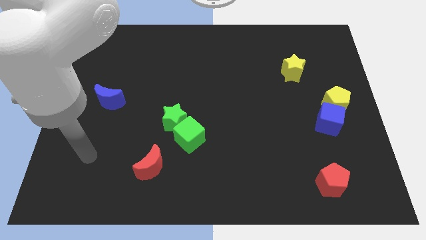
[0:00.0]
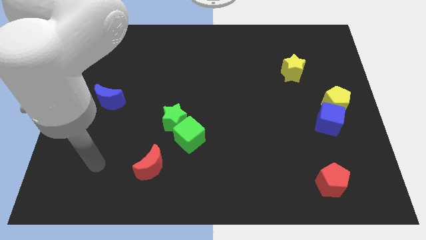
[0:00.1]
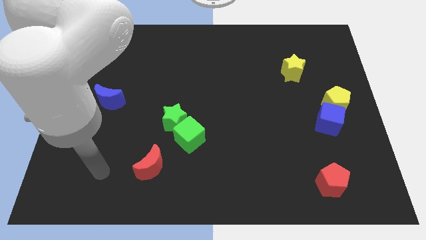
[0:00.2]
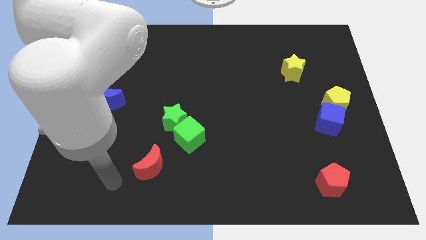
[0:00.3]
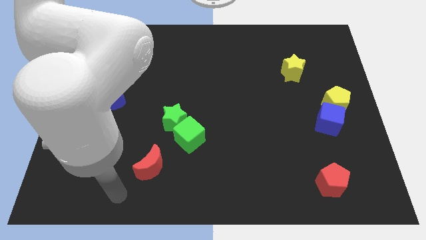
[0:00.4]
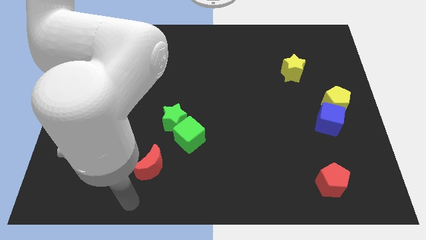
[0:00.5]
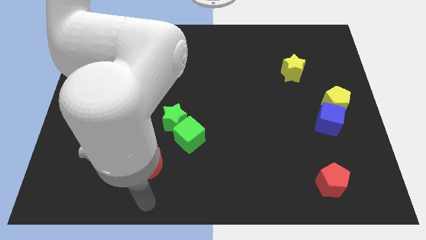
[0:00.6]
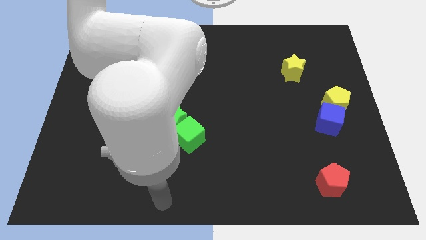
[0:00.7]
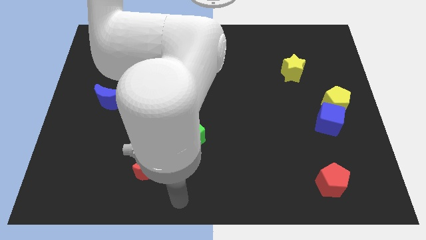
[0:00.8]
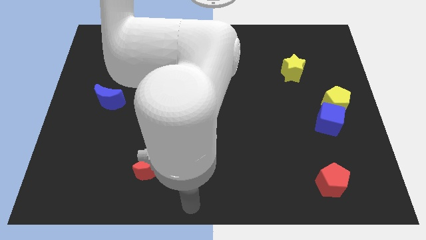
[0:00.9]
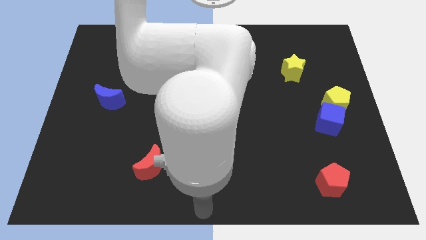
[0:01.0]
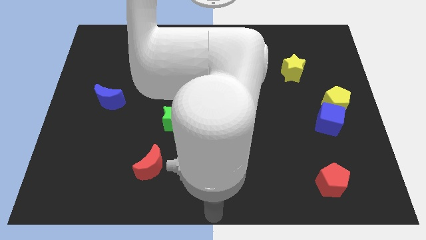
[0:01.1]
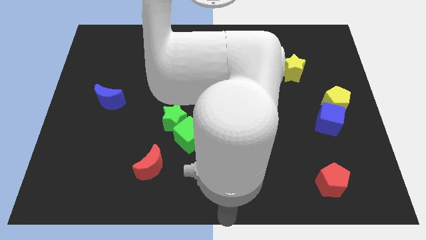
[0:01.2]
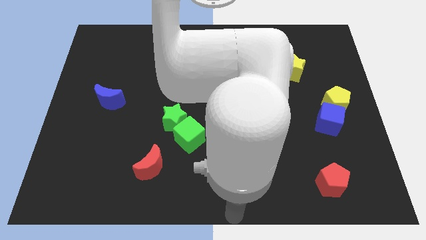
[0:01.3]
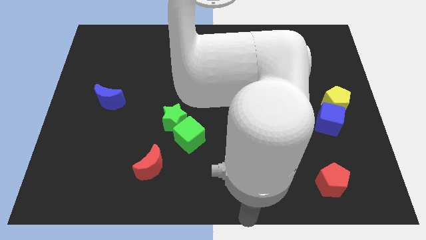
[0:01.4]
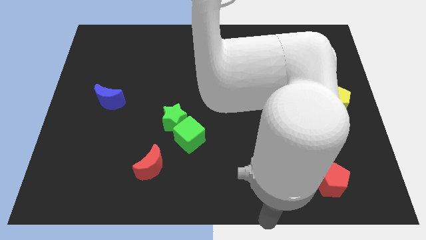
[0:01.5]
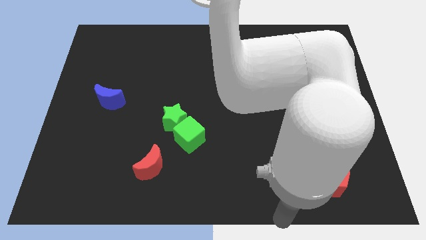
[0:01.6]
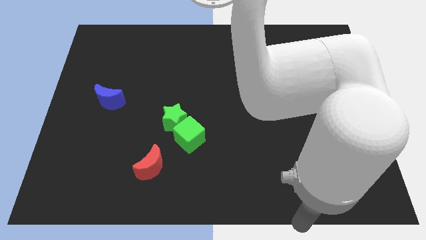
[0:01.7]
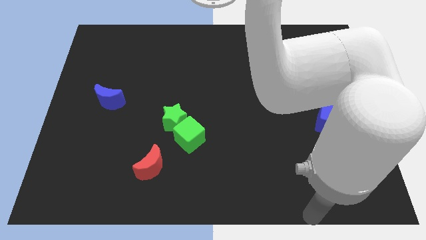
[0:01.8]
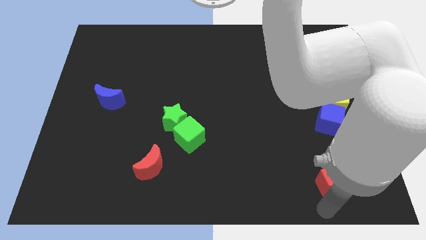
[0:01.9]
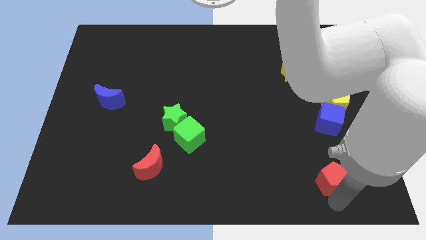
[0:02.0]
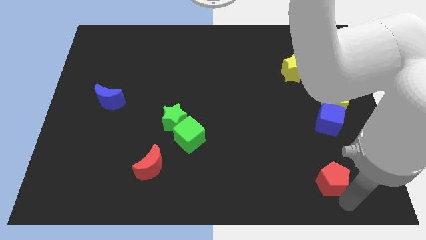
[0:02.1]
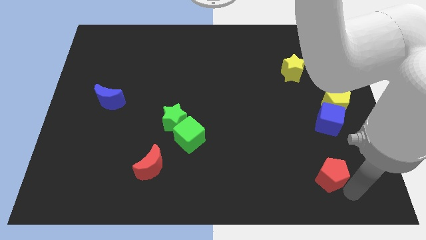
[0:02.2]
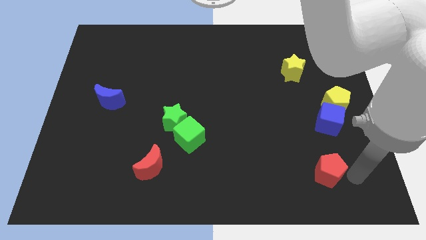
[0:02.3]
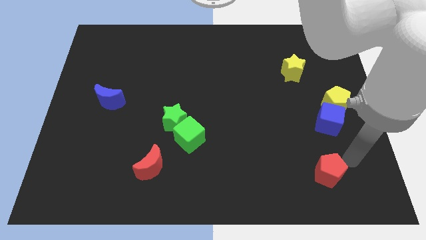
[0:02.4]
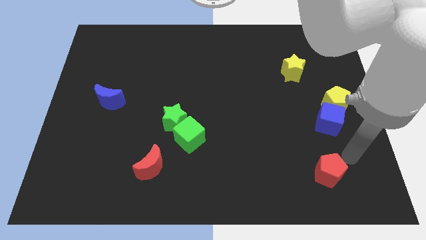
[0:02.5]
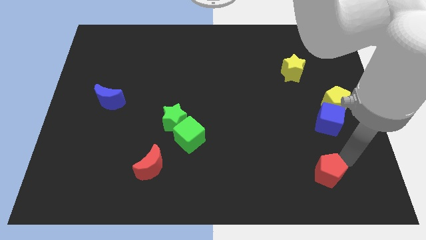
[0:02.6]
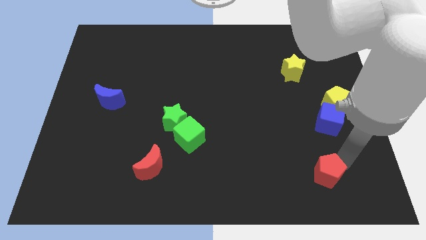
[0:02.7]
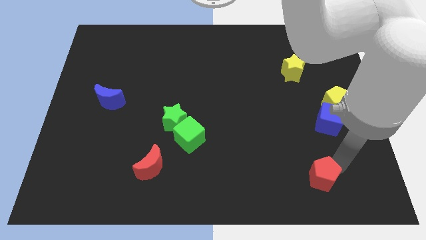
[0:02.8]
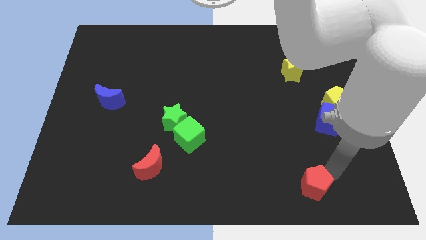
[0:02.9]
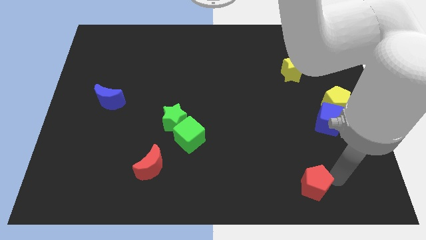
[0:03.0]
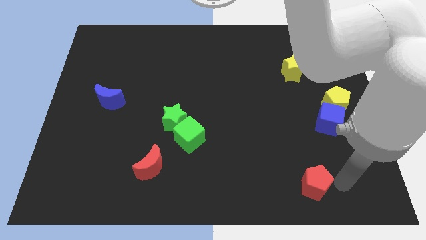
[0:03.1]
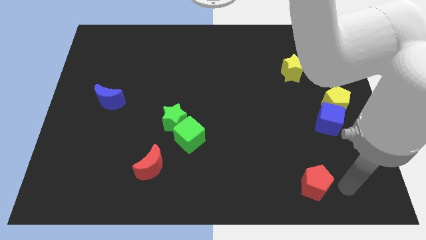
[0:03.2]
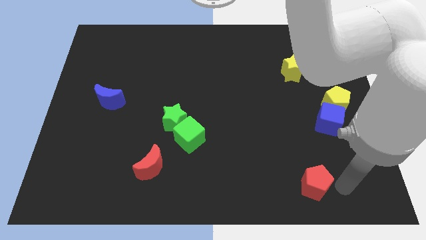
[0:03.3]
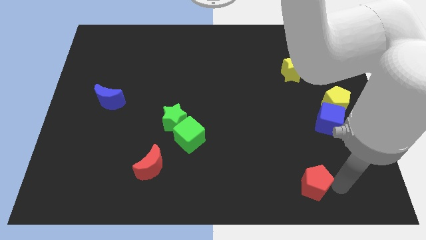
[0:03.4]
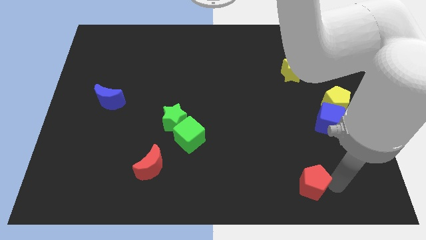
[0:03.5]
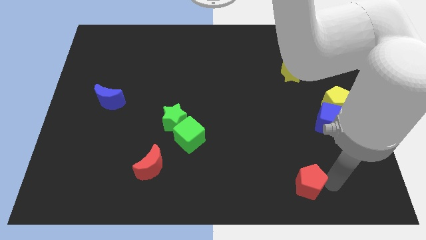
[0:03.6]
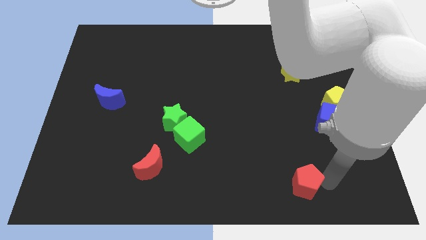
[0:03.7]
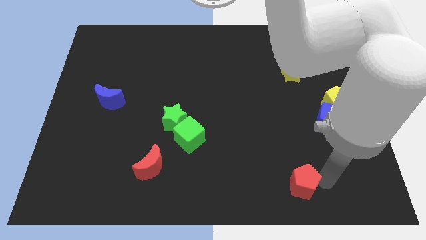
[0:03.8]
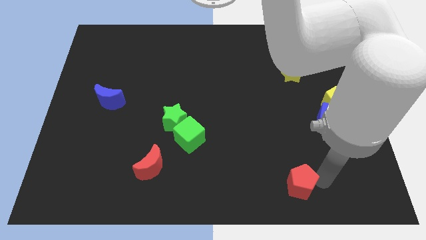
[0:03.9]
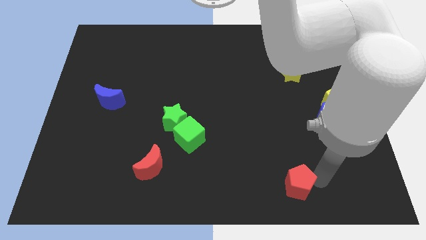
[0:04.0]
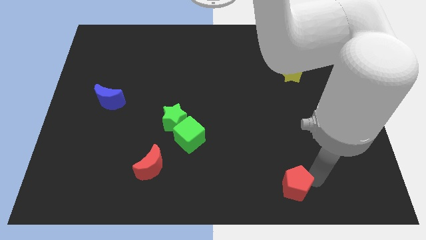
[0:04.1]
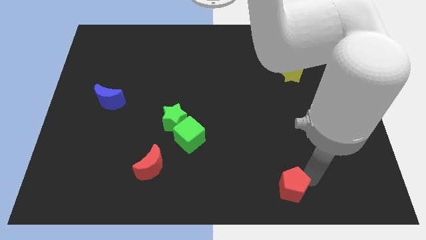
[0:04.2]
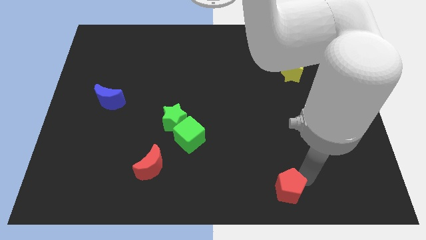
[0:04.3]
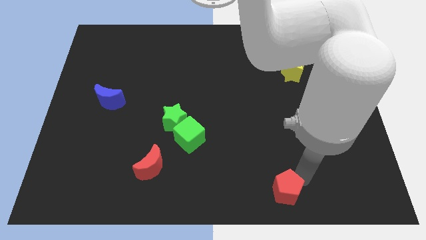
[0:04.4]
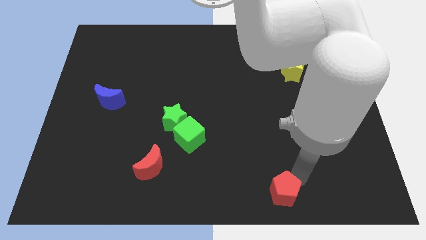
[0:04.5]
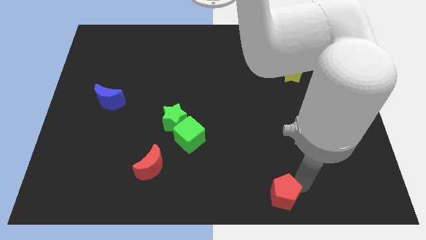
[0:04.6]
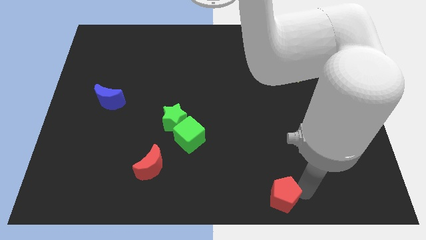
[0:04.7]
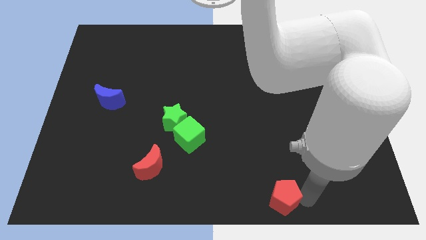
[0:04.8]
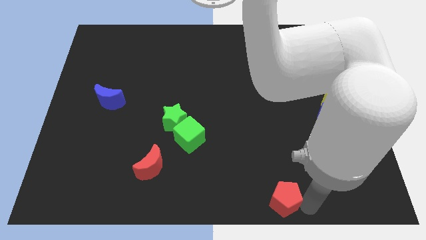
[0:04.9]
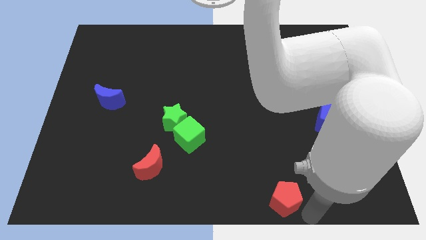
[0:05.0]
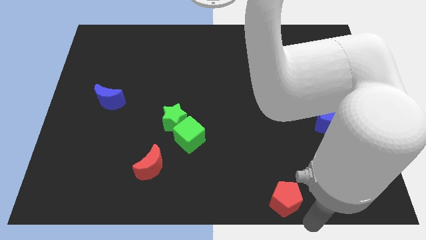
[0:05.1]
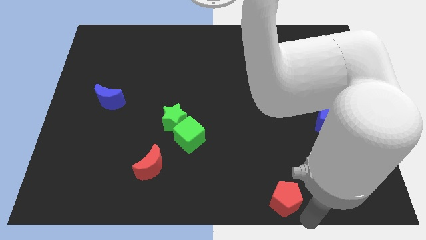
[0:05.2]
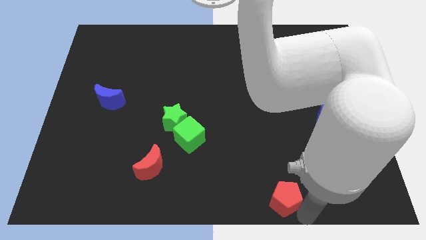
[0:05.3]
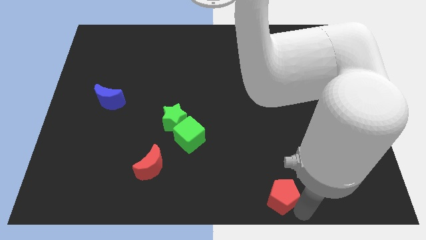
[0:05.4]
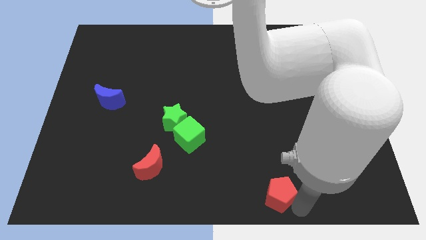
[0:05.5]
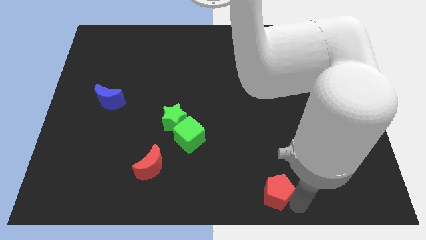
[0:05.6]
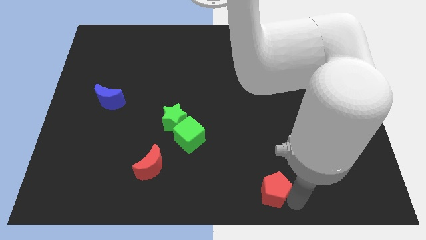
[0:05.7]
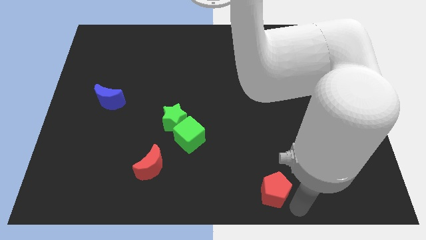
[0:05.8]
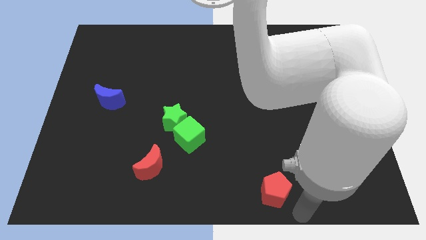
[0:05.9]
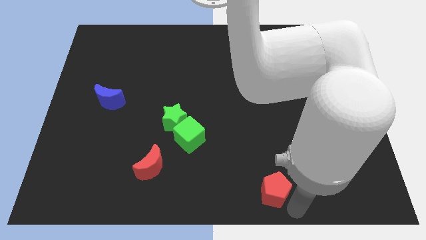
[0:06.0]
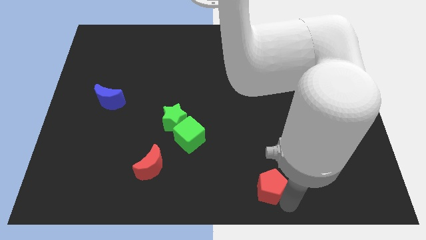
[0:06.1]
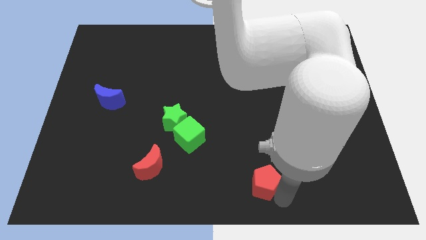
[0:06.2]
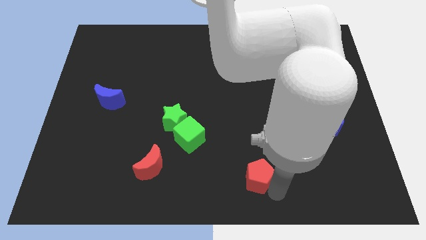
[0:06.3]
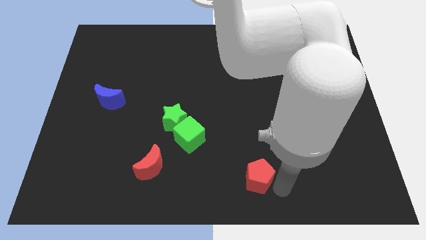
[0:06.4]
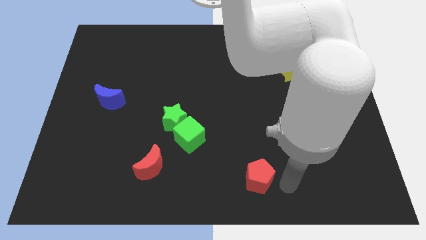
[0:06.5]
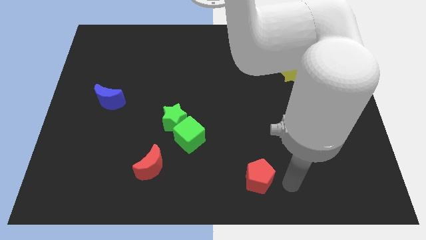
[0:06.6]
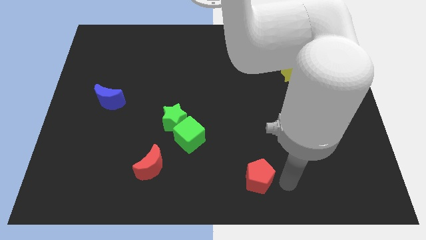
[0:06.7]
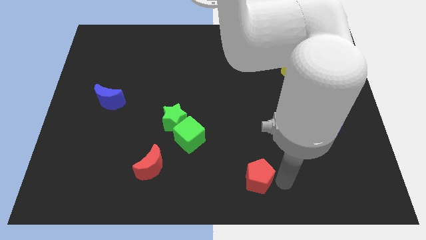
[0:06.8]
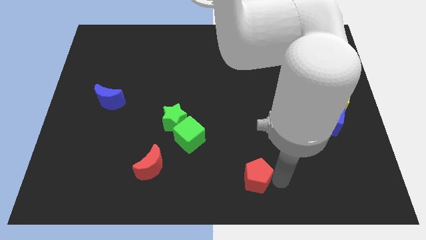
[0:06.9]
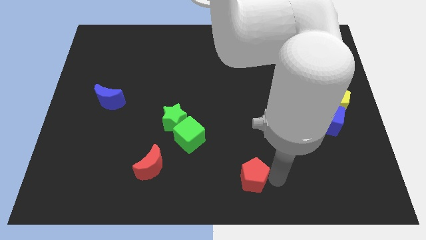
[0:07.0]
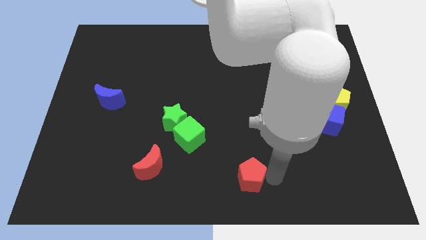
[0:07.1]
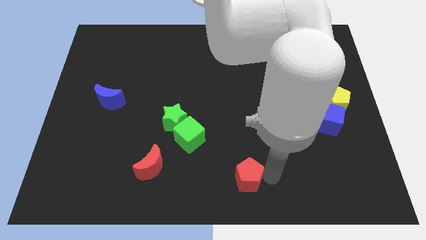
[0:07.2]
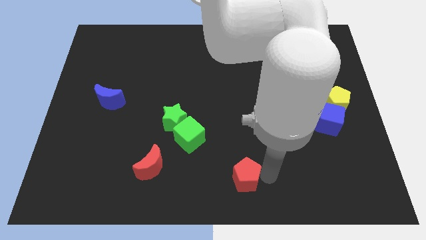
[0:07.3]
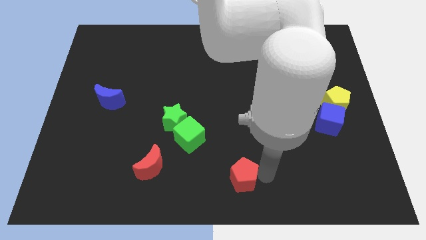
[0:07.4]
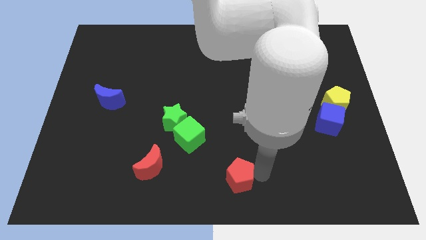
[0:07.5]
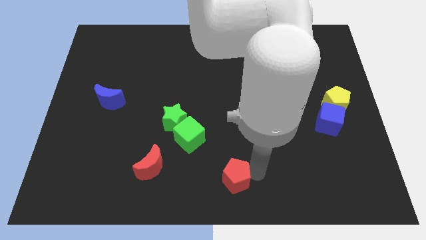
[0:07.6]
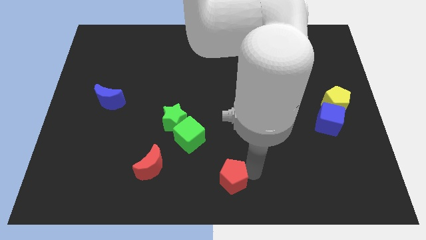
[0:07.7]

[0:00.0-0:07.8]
move the red pentagon left

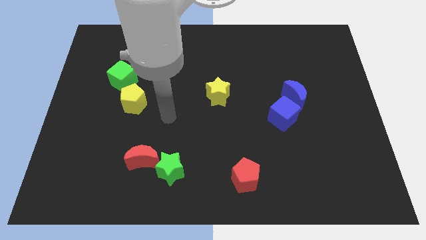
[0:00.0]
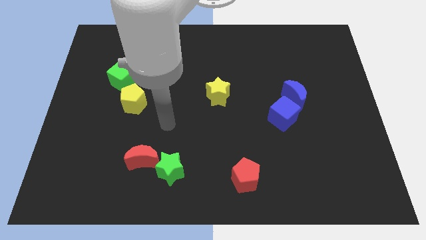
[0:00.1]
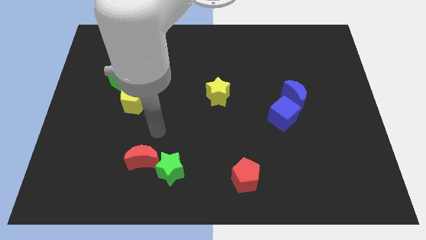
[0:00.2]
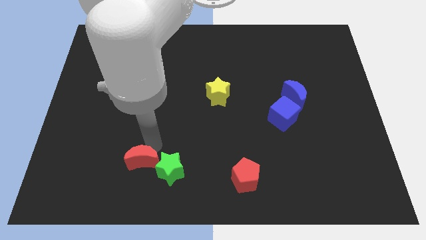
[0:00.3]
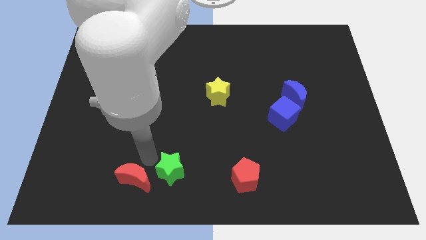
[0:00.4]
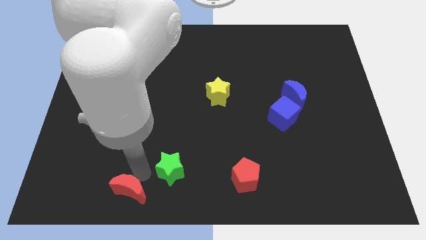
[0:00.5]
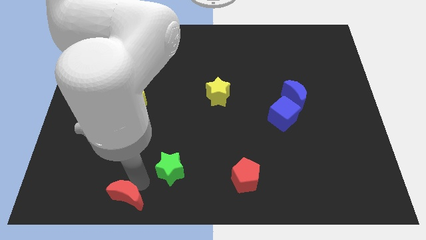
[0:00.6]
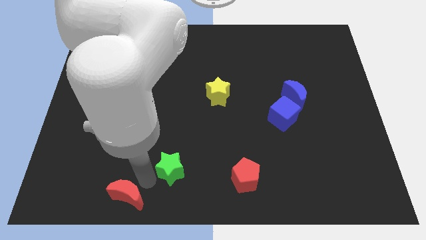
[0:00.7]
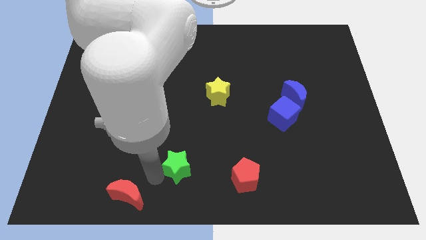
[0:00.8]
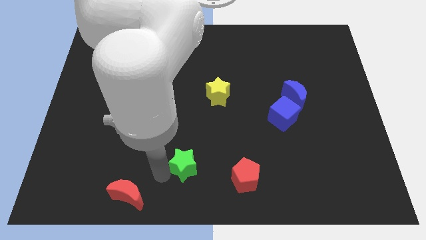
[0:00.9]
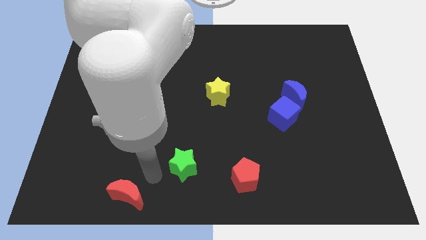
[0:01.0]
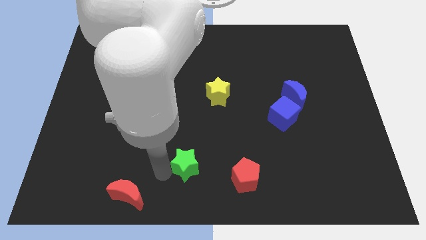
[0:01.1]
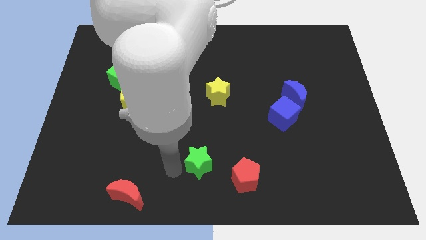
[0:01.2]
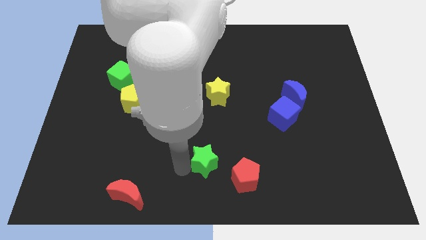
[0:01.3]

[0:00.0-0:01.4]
push the green star a little bit to the right
